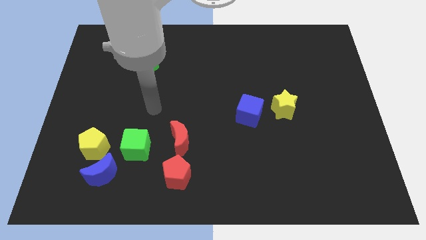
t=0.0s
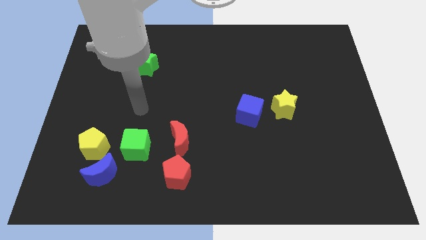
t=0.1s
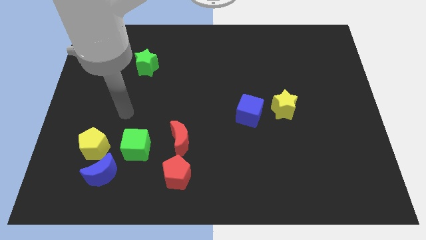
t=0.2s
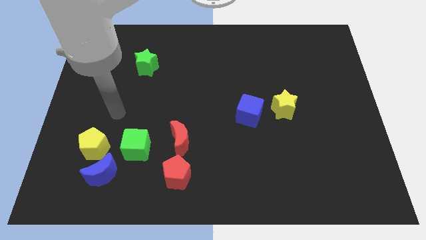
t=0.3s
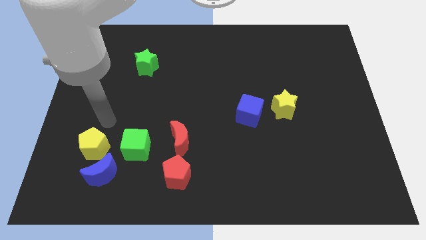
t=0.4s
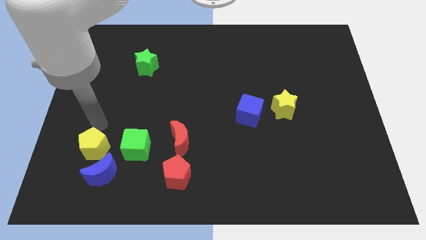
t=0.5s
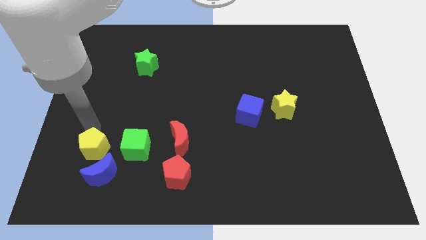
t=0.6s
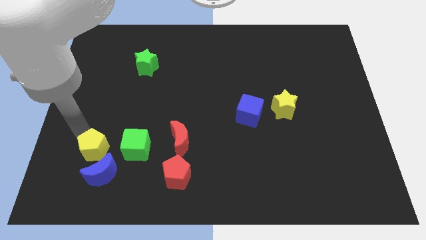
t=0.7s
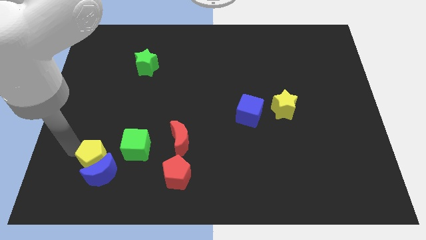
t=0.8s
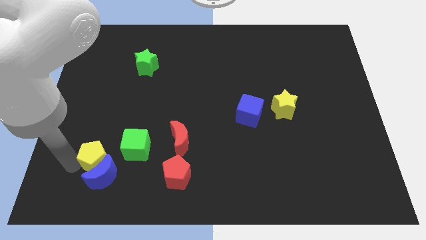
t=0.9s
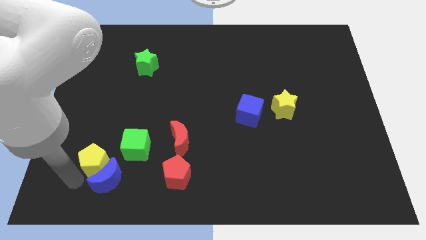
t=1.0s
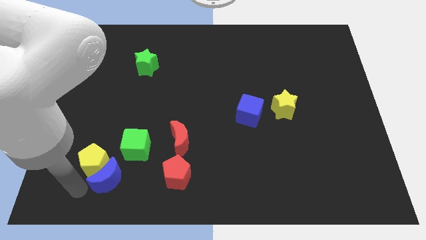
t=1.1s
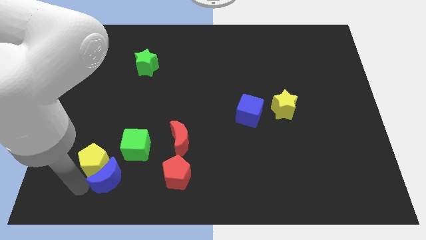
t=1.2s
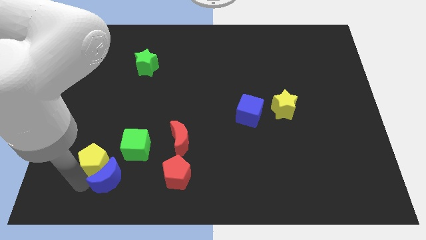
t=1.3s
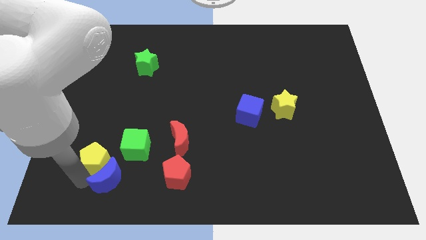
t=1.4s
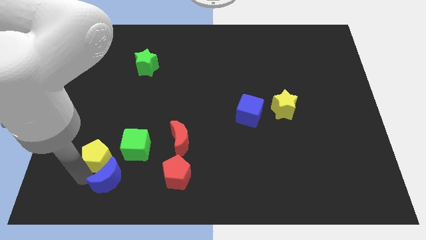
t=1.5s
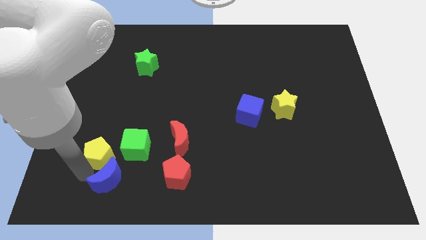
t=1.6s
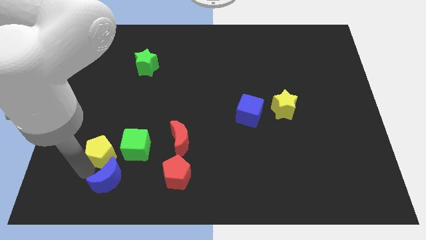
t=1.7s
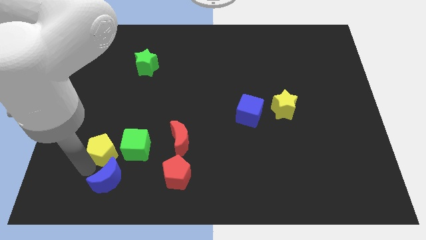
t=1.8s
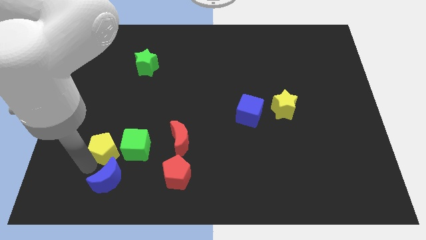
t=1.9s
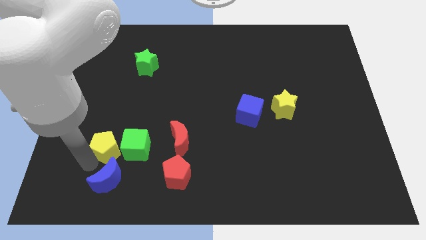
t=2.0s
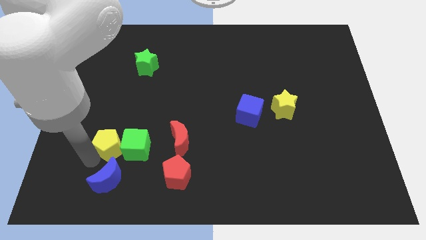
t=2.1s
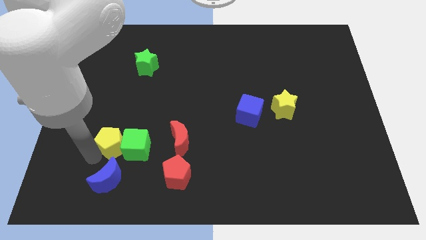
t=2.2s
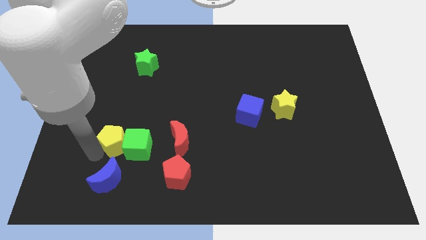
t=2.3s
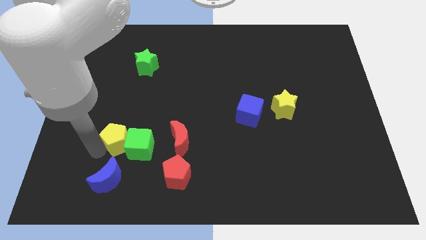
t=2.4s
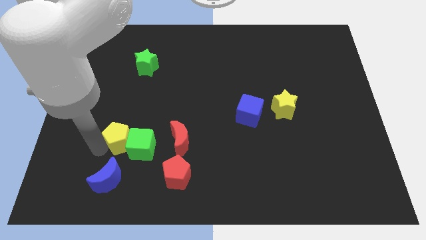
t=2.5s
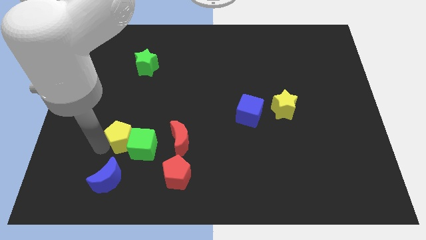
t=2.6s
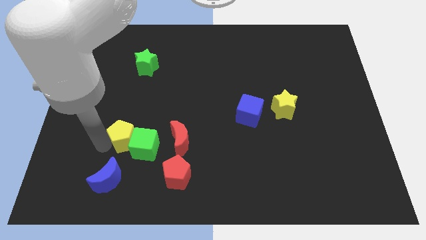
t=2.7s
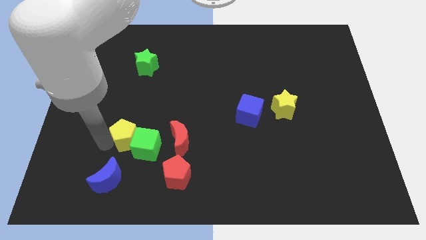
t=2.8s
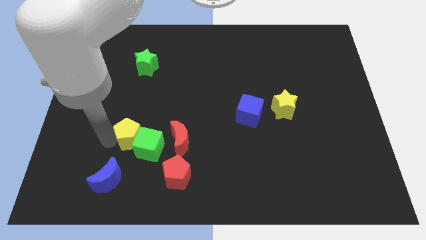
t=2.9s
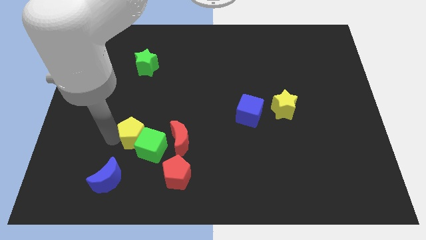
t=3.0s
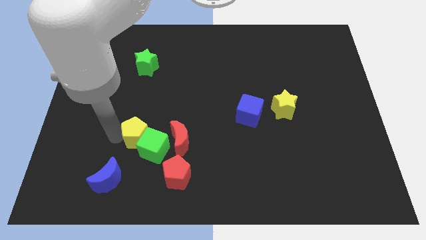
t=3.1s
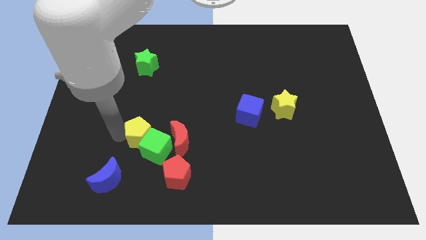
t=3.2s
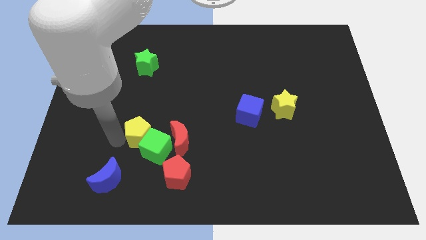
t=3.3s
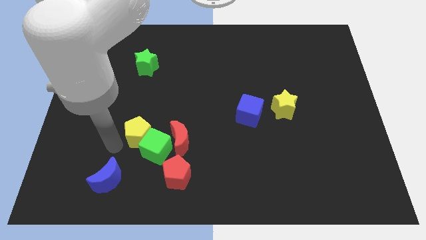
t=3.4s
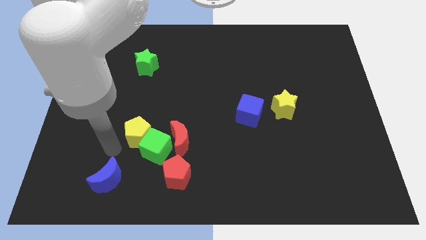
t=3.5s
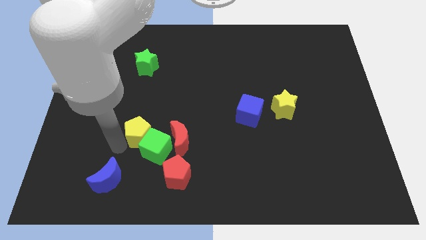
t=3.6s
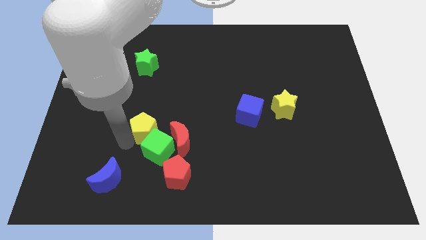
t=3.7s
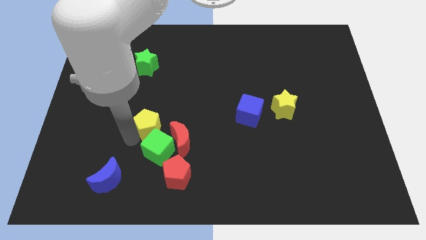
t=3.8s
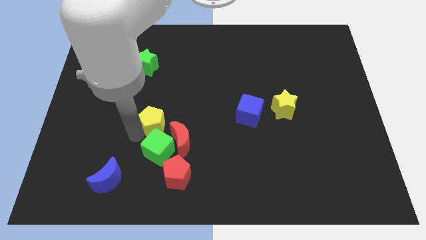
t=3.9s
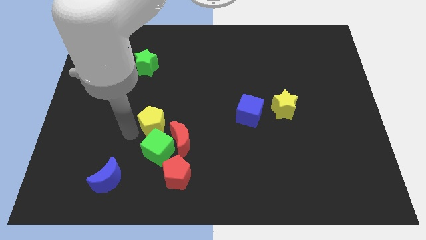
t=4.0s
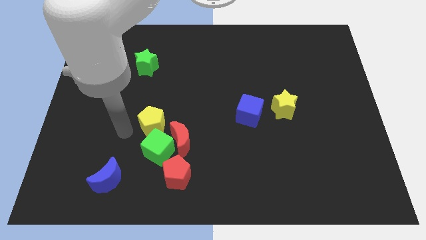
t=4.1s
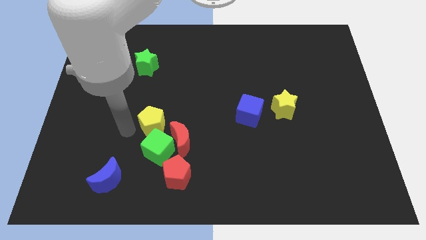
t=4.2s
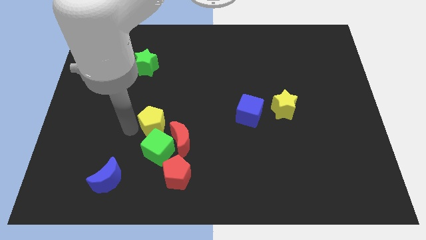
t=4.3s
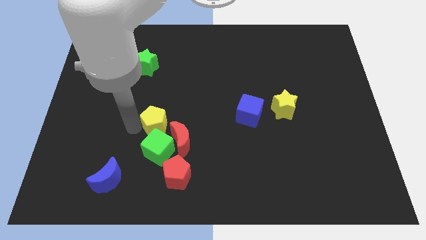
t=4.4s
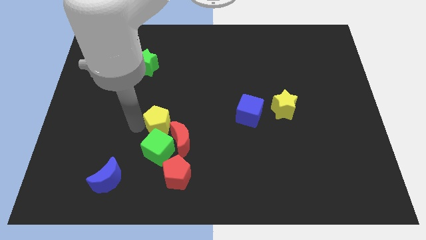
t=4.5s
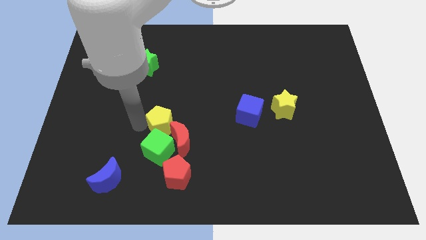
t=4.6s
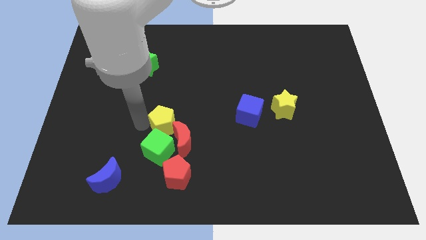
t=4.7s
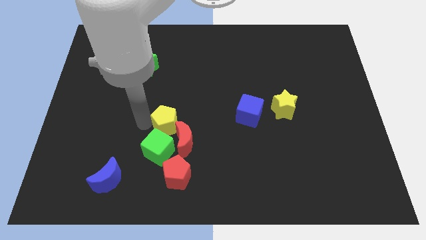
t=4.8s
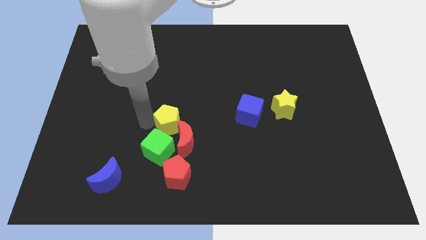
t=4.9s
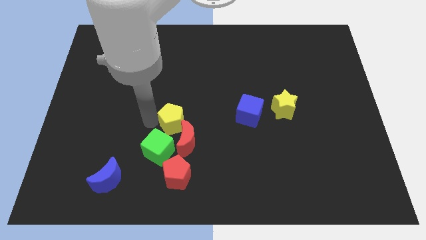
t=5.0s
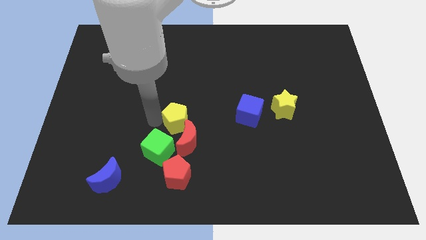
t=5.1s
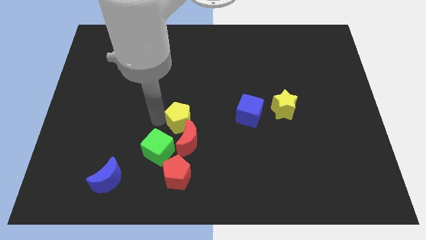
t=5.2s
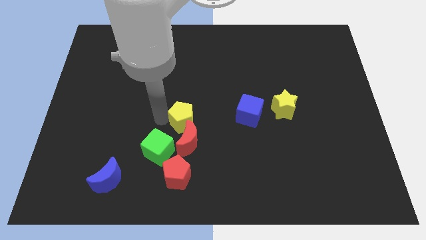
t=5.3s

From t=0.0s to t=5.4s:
slide the yellow pentagon left of the blue cube

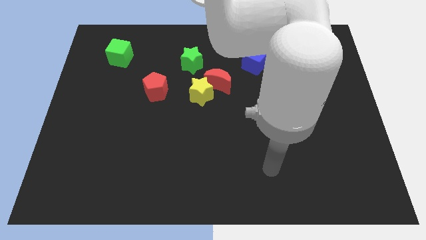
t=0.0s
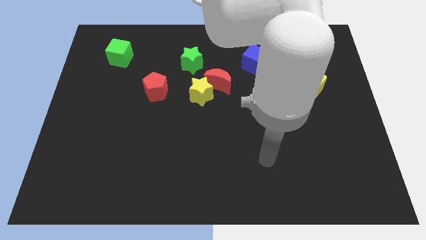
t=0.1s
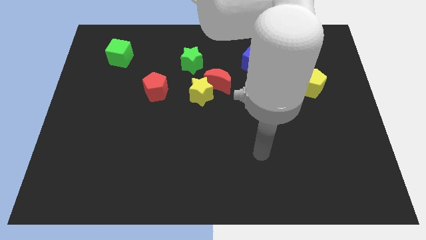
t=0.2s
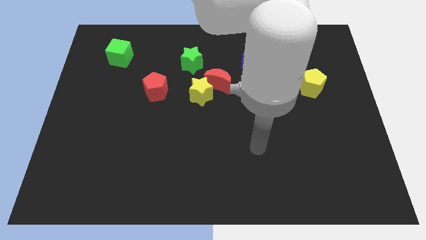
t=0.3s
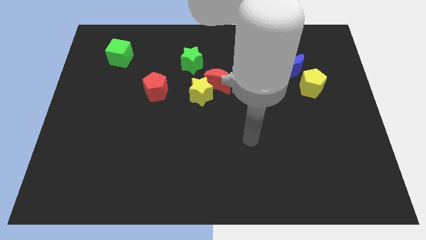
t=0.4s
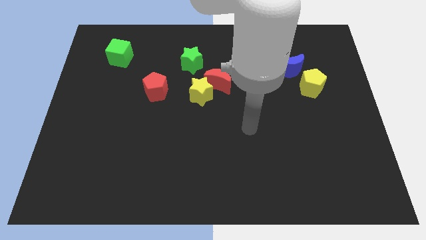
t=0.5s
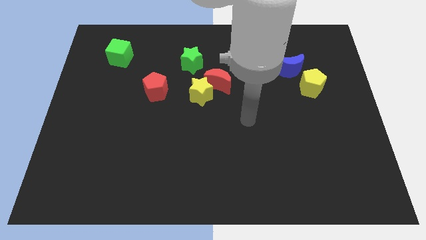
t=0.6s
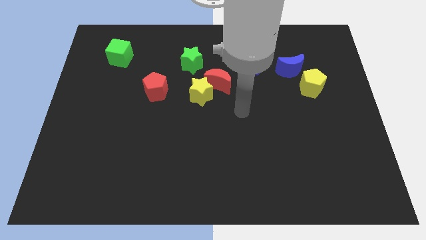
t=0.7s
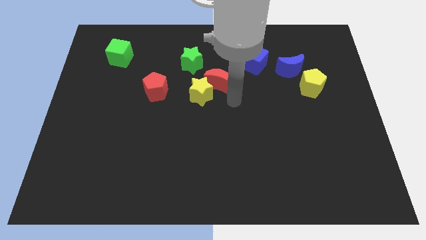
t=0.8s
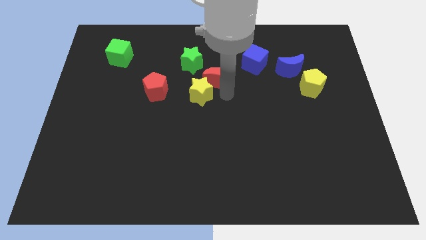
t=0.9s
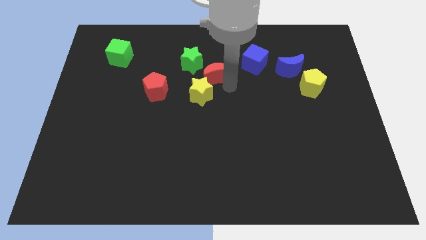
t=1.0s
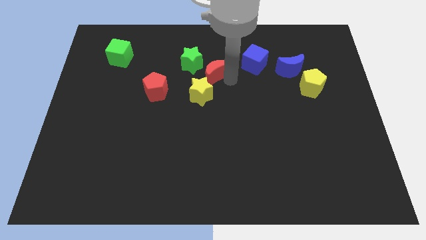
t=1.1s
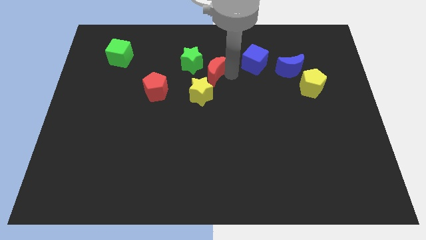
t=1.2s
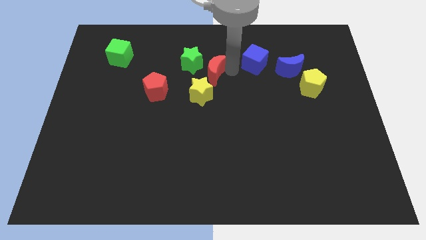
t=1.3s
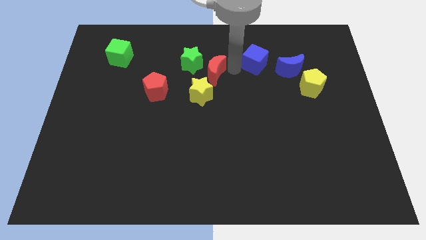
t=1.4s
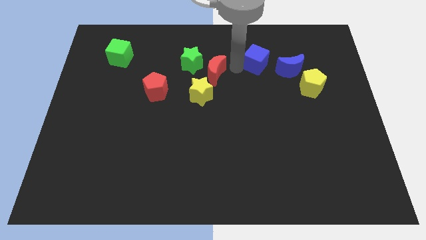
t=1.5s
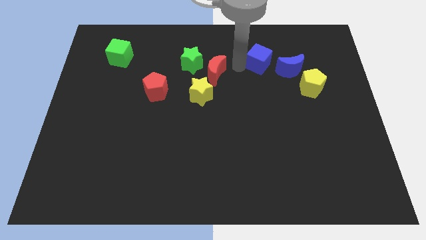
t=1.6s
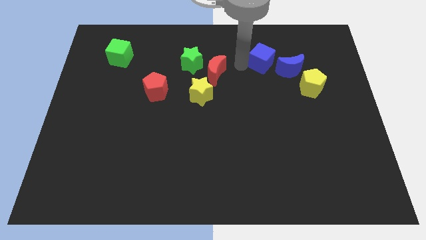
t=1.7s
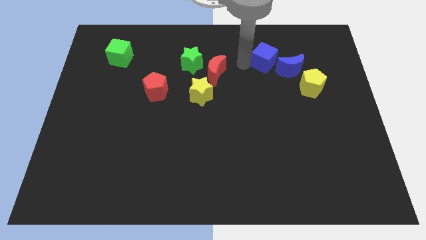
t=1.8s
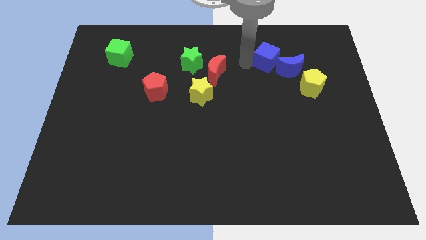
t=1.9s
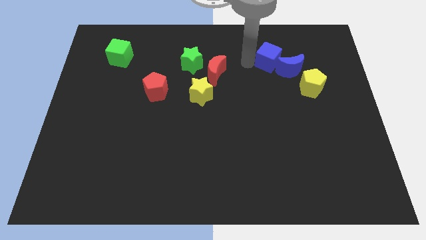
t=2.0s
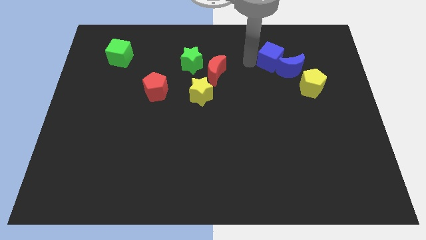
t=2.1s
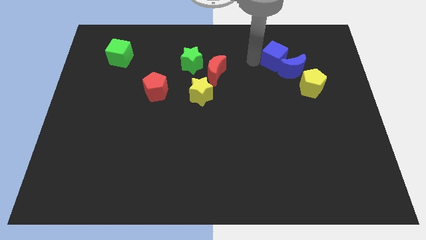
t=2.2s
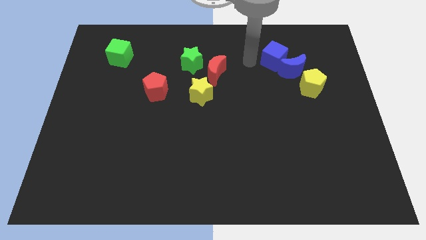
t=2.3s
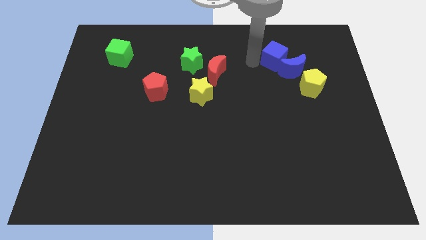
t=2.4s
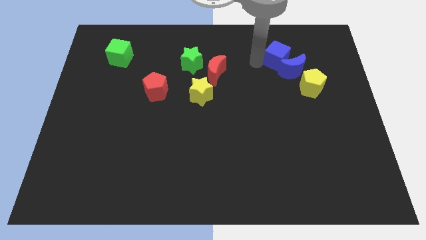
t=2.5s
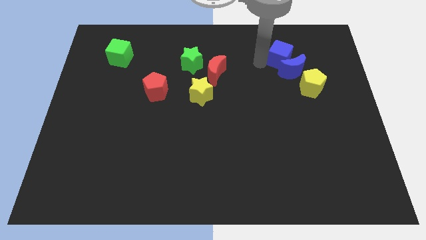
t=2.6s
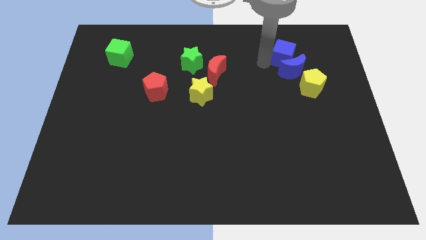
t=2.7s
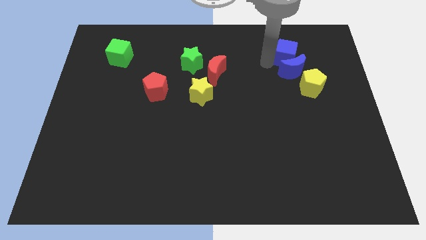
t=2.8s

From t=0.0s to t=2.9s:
put the blue cube to the top right of the blue moon
